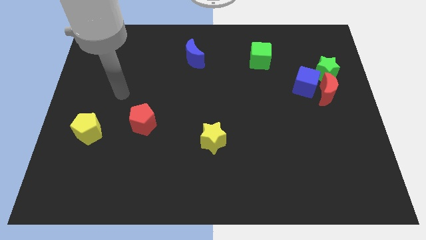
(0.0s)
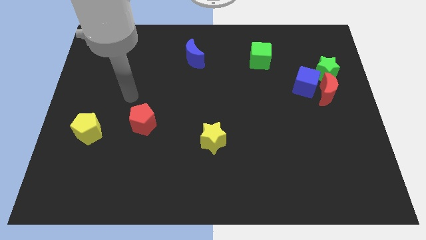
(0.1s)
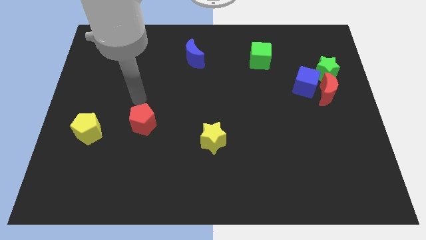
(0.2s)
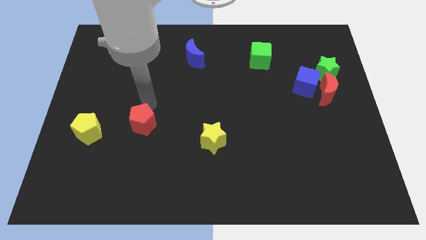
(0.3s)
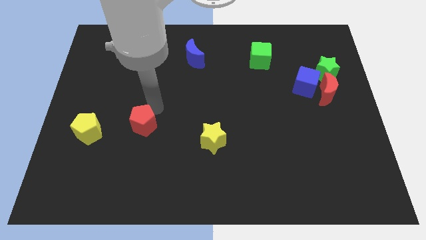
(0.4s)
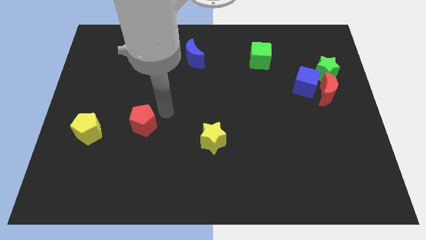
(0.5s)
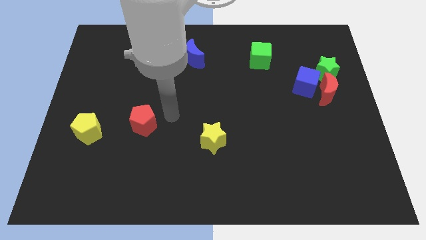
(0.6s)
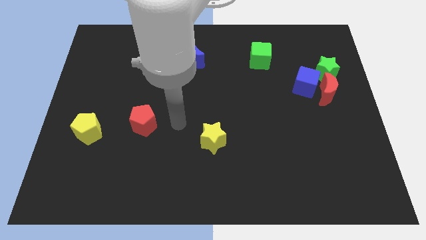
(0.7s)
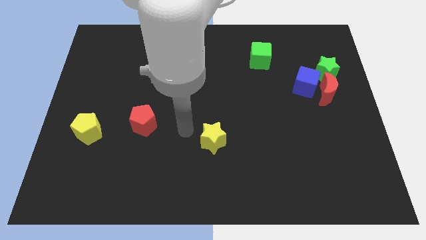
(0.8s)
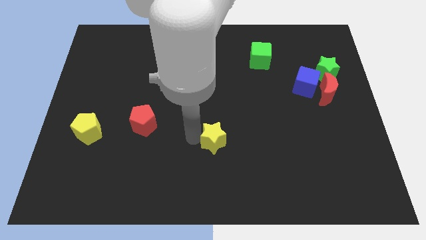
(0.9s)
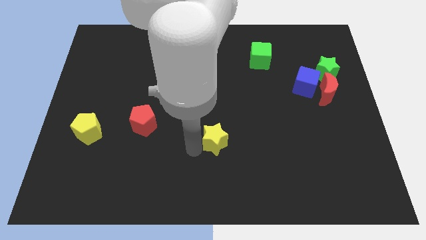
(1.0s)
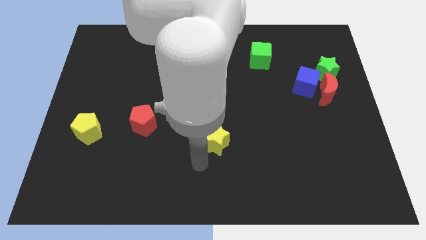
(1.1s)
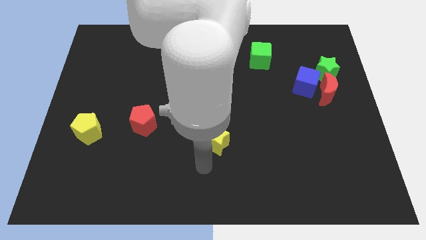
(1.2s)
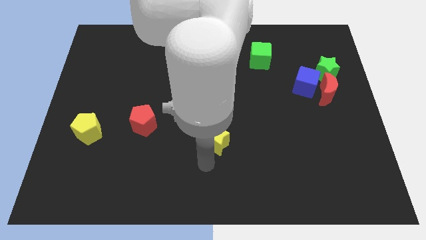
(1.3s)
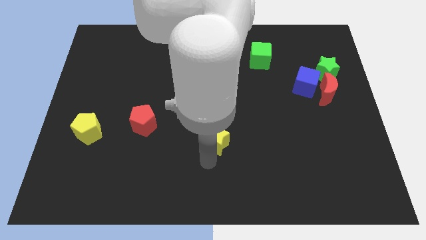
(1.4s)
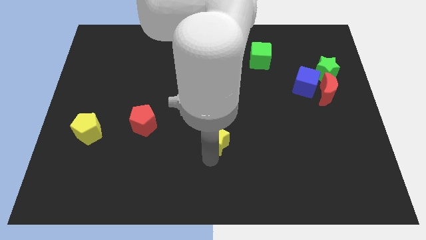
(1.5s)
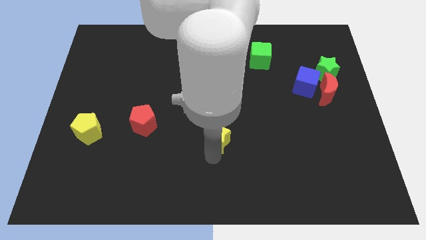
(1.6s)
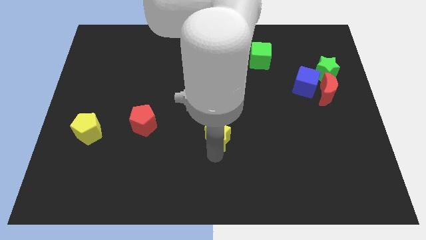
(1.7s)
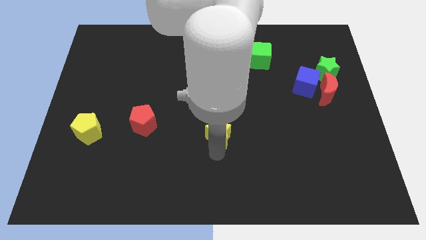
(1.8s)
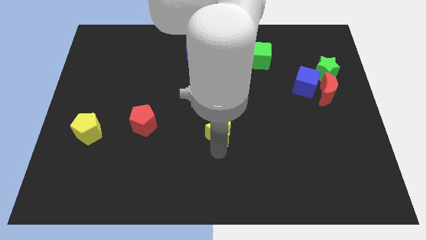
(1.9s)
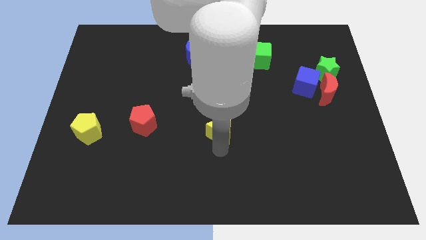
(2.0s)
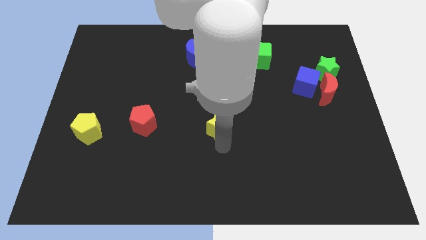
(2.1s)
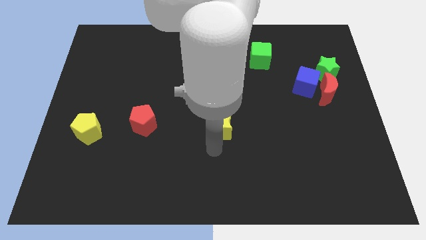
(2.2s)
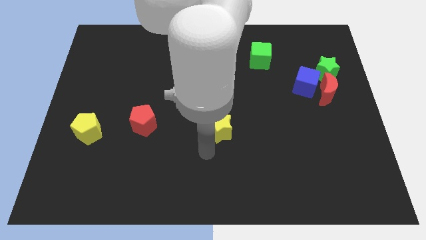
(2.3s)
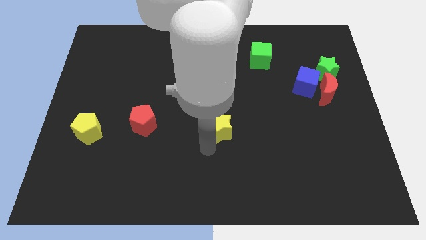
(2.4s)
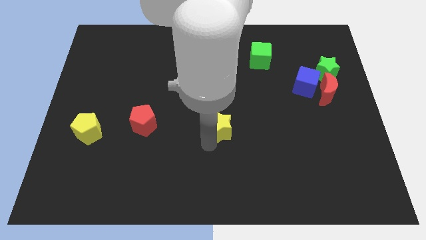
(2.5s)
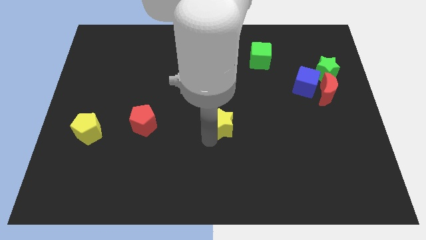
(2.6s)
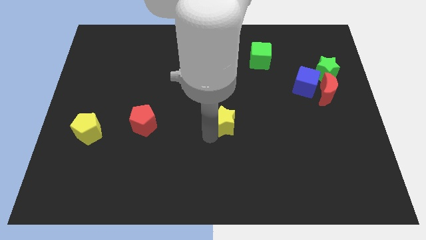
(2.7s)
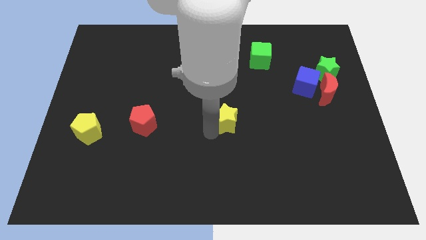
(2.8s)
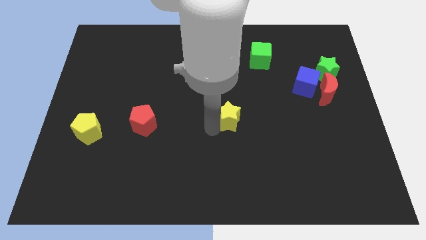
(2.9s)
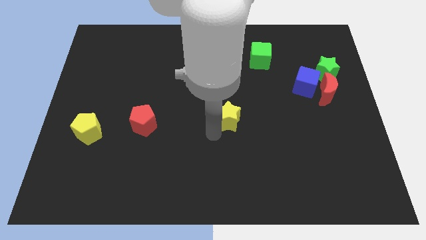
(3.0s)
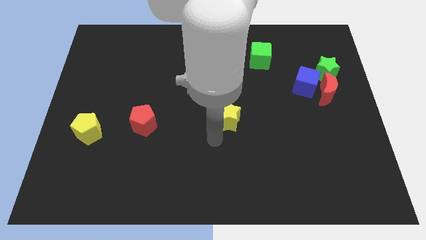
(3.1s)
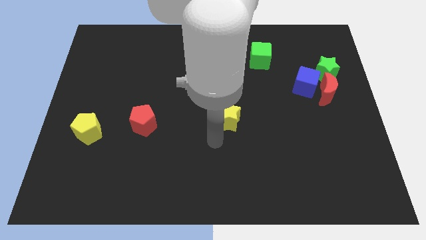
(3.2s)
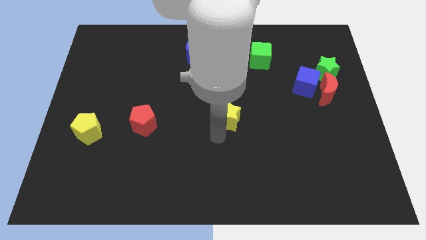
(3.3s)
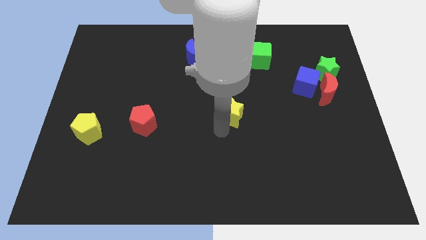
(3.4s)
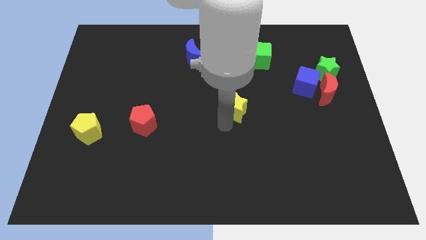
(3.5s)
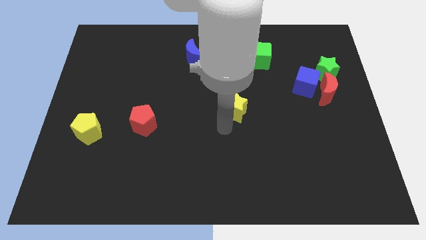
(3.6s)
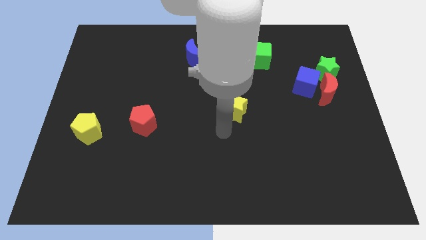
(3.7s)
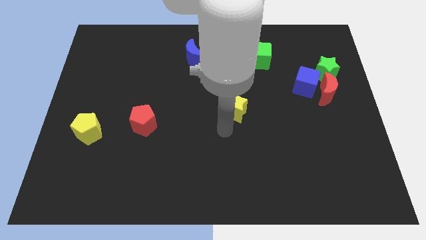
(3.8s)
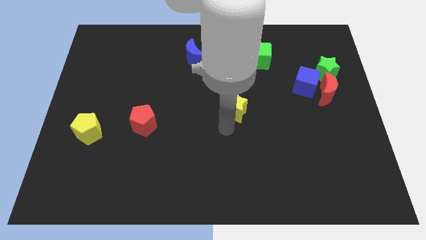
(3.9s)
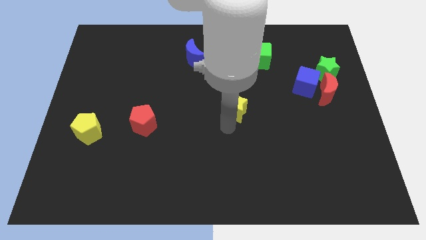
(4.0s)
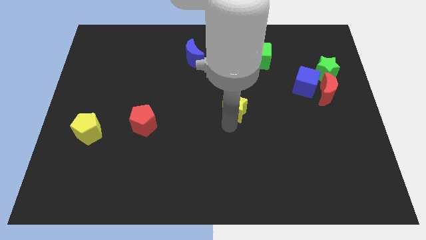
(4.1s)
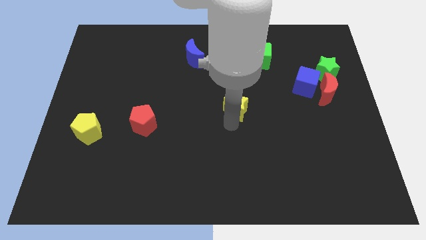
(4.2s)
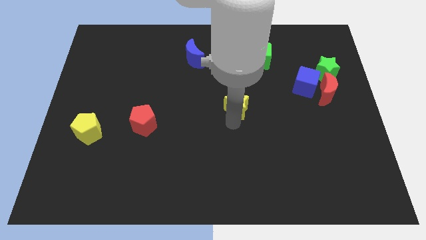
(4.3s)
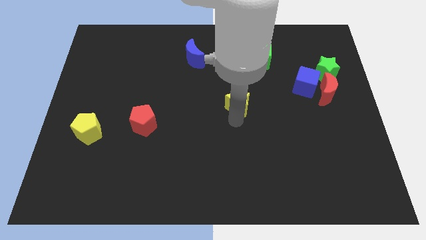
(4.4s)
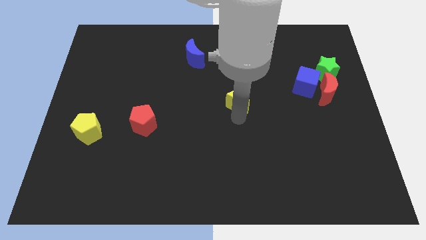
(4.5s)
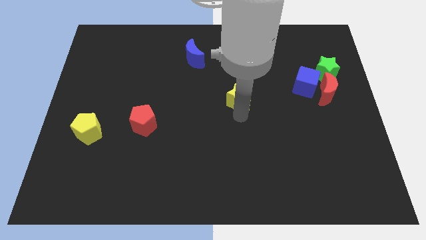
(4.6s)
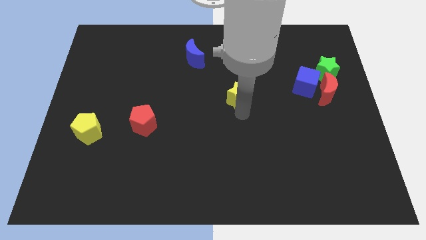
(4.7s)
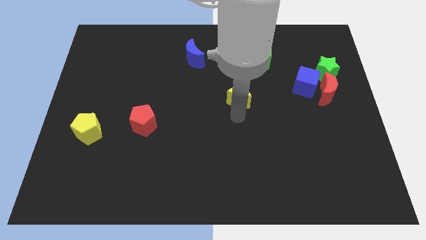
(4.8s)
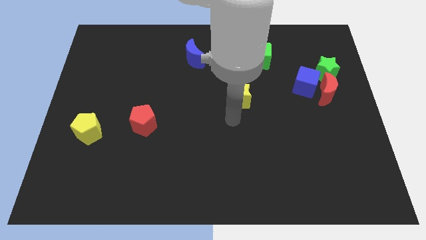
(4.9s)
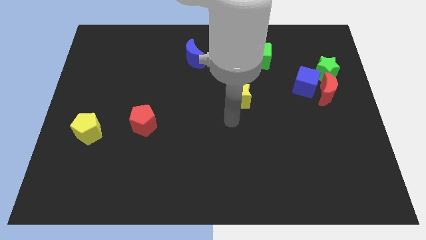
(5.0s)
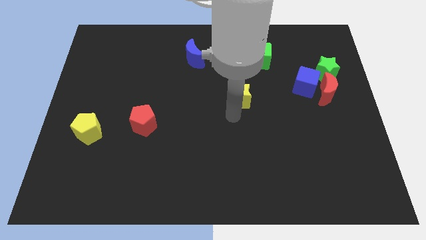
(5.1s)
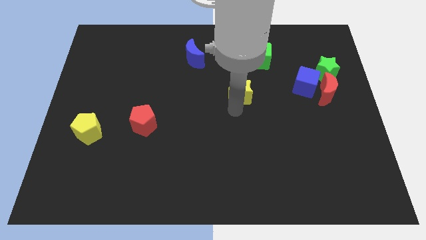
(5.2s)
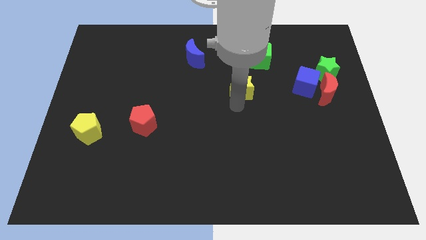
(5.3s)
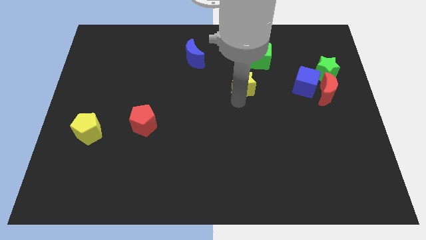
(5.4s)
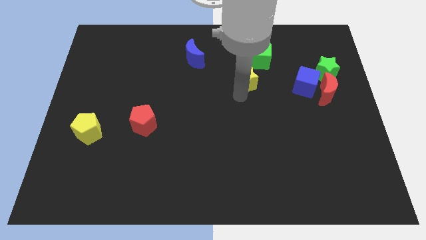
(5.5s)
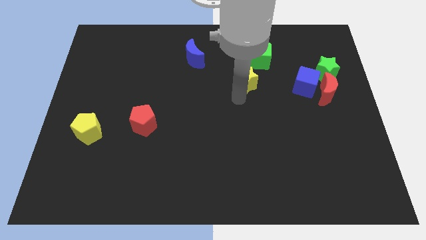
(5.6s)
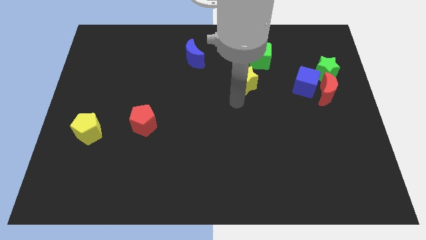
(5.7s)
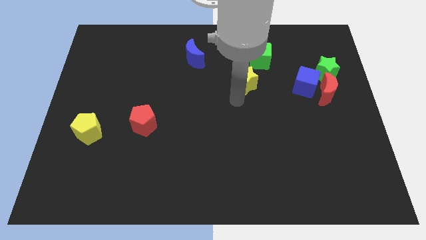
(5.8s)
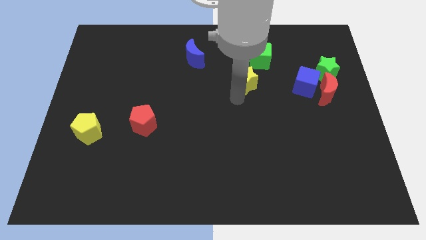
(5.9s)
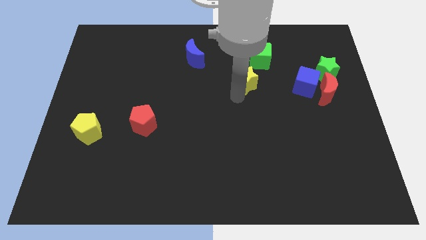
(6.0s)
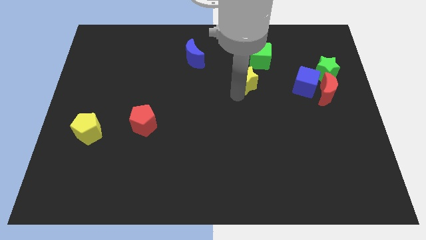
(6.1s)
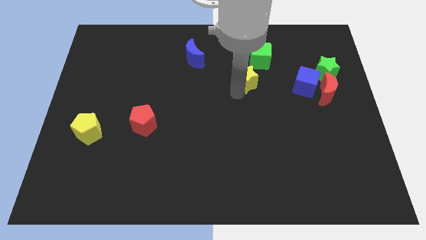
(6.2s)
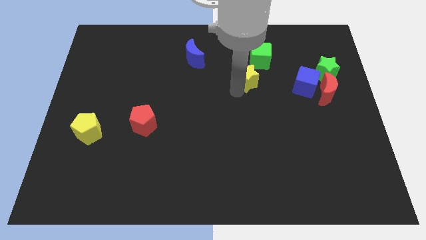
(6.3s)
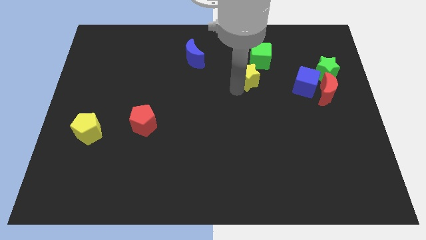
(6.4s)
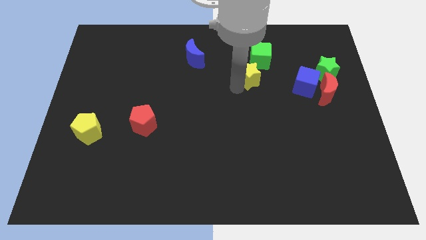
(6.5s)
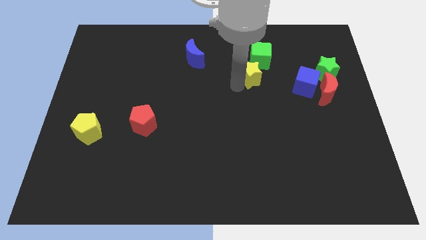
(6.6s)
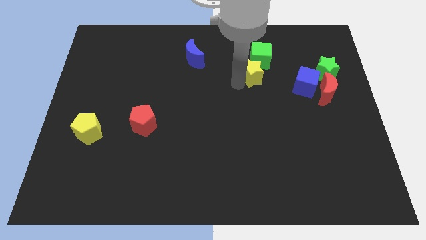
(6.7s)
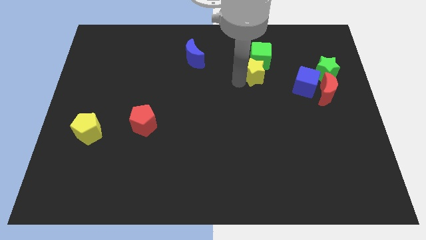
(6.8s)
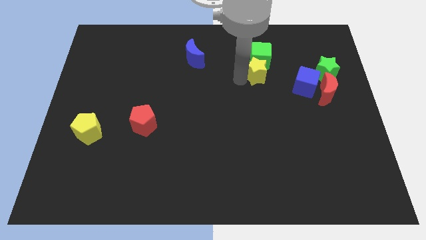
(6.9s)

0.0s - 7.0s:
slide the yellow star next to the green cube
